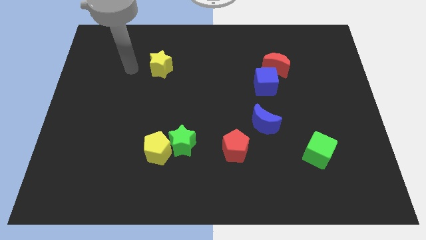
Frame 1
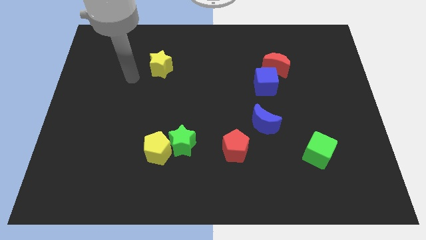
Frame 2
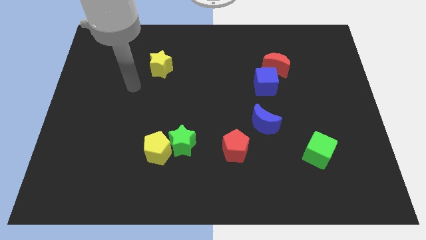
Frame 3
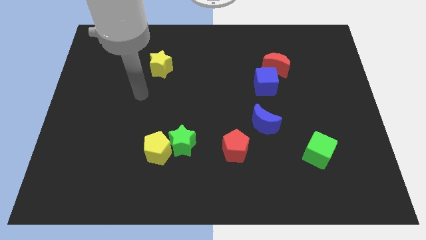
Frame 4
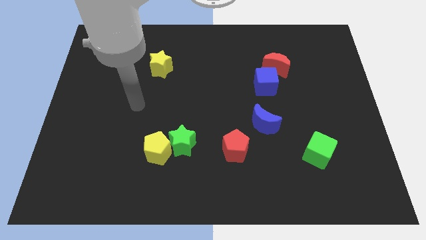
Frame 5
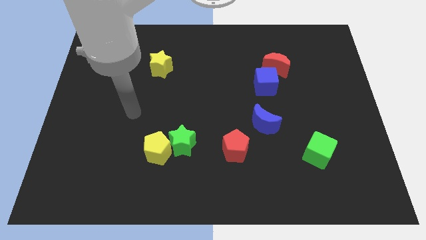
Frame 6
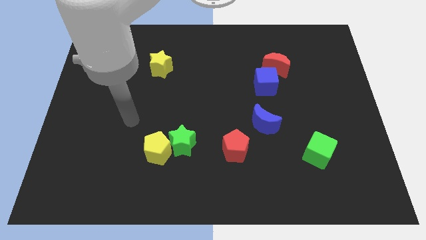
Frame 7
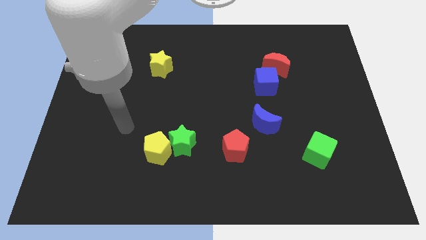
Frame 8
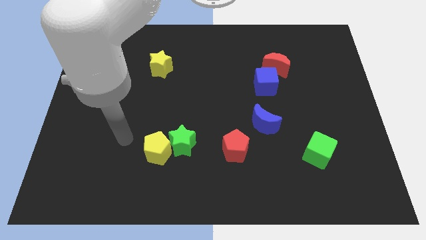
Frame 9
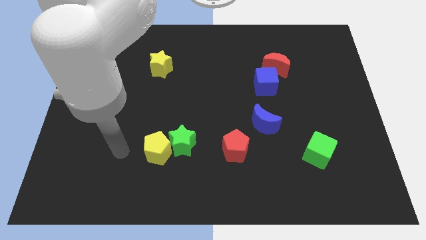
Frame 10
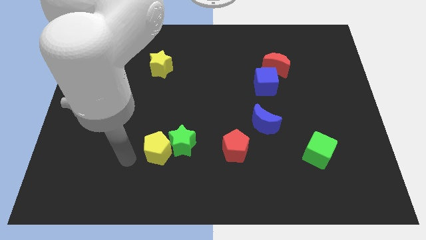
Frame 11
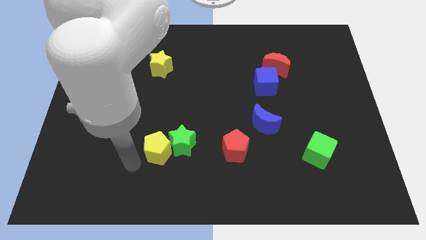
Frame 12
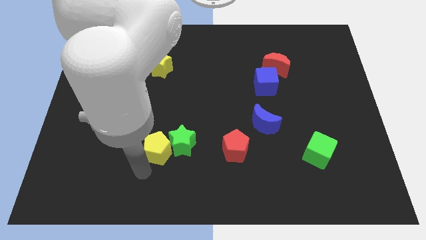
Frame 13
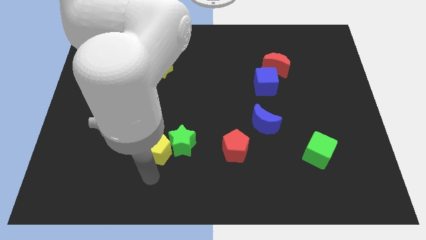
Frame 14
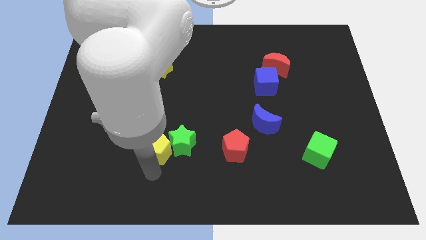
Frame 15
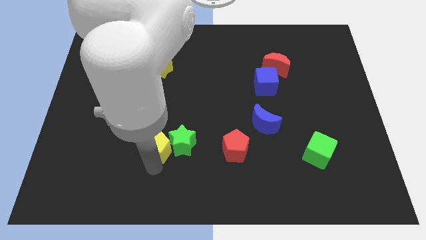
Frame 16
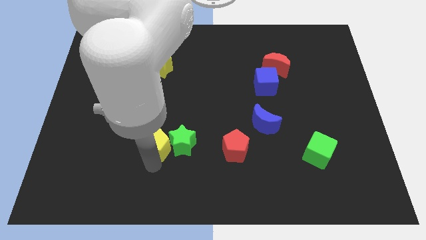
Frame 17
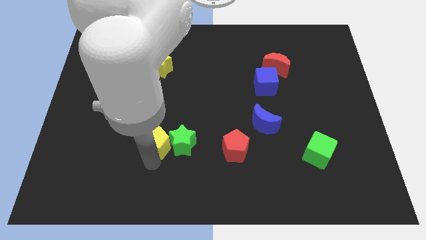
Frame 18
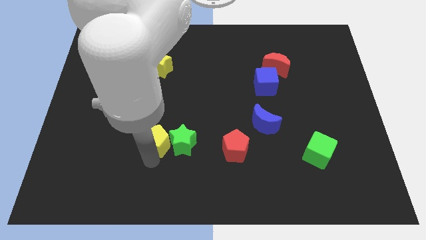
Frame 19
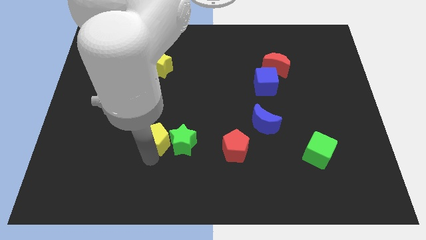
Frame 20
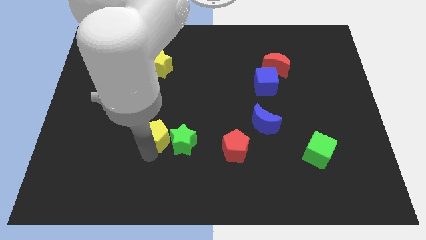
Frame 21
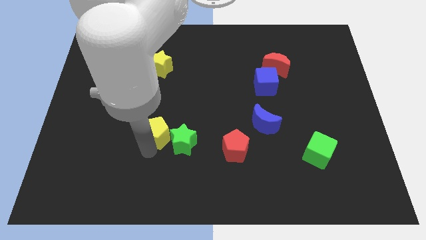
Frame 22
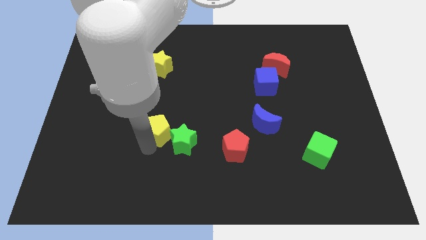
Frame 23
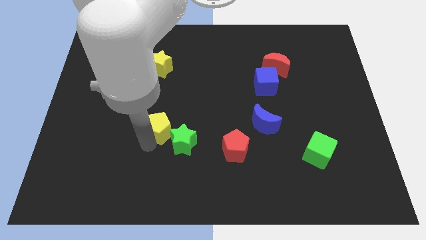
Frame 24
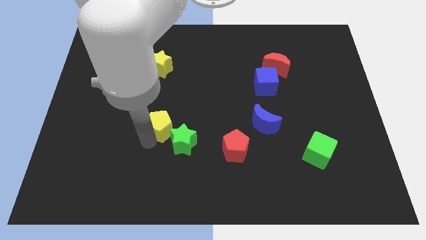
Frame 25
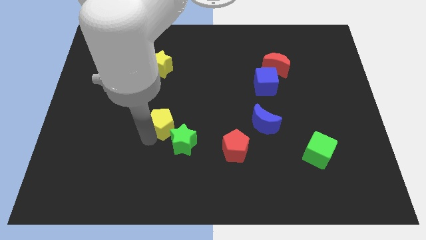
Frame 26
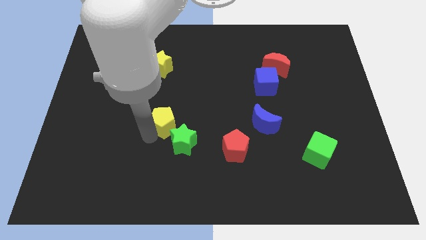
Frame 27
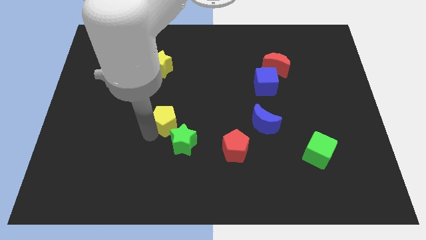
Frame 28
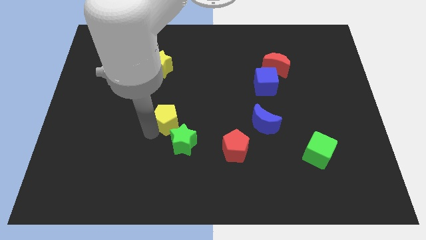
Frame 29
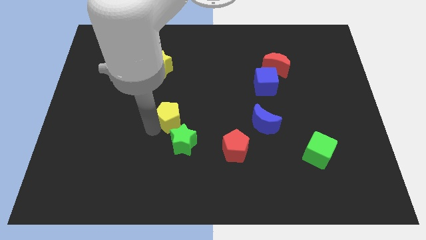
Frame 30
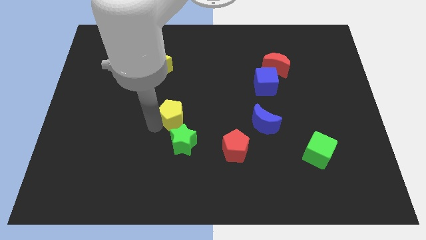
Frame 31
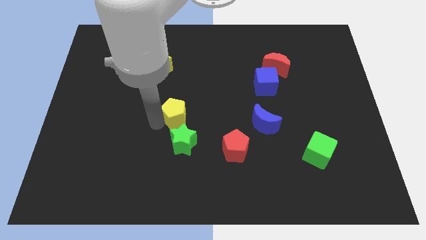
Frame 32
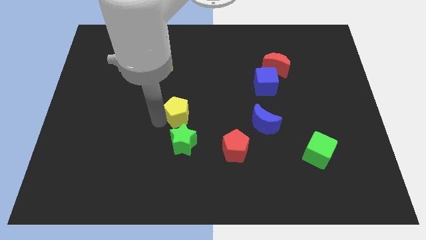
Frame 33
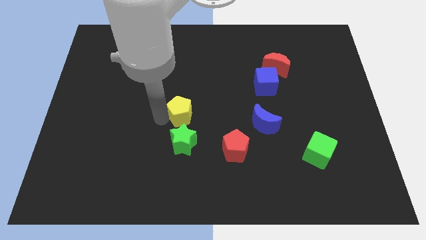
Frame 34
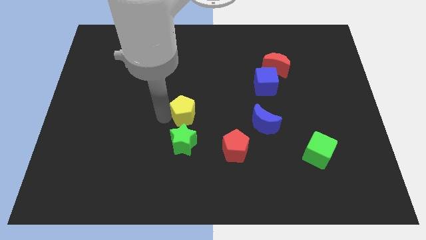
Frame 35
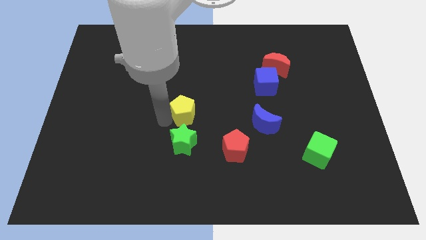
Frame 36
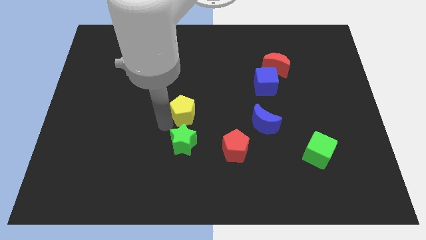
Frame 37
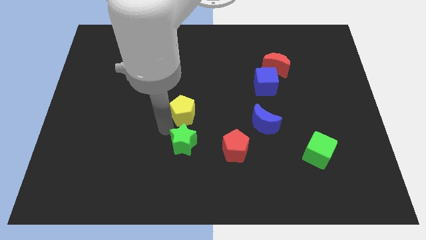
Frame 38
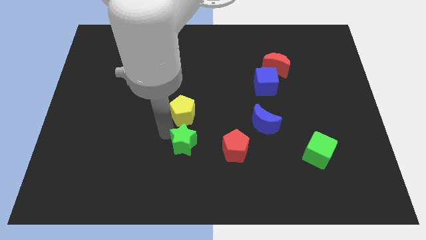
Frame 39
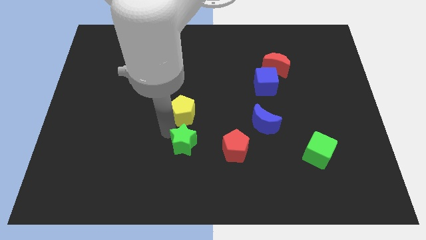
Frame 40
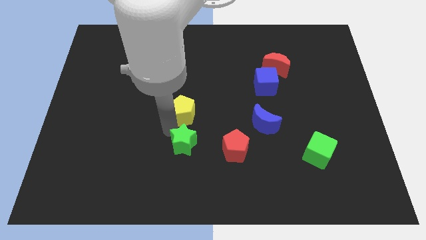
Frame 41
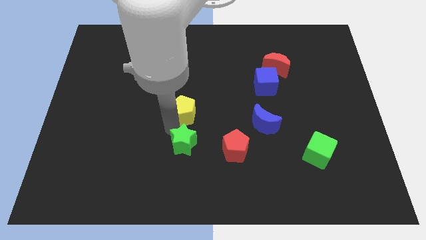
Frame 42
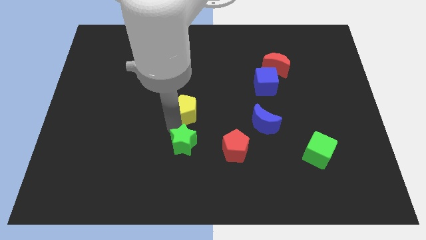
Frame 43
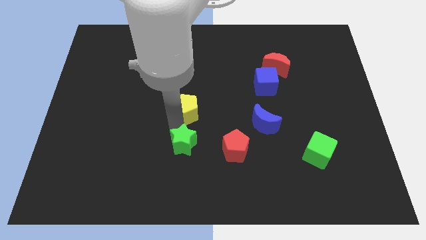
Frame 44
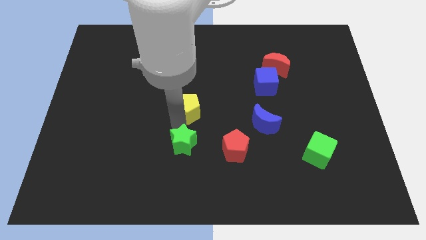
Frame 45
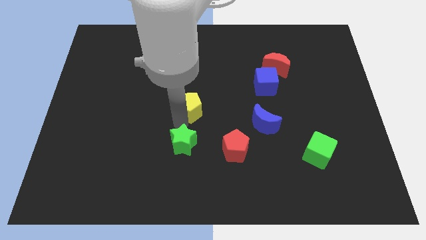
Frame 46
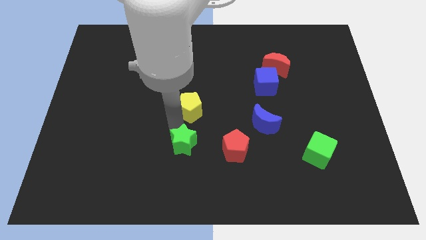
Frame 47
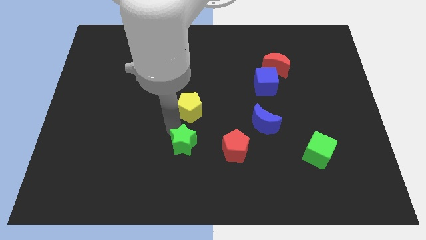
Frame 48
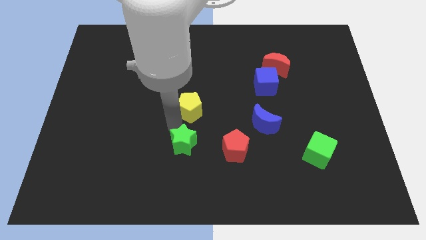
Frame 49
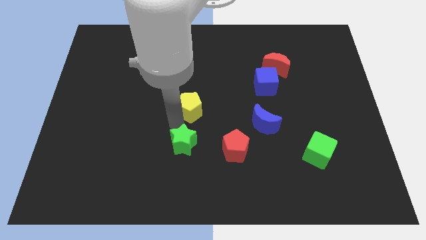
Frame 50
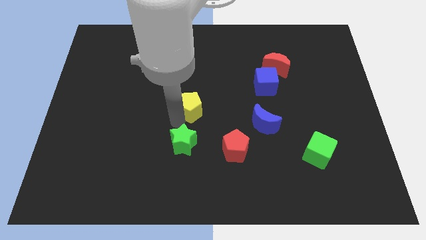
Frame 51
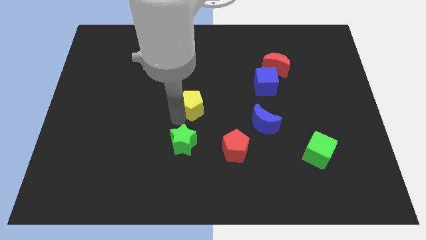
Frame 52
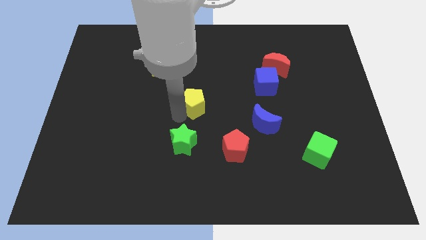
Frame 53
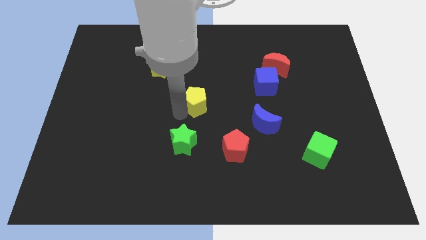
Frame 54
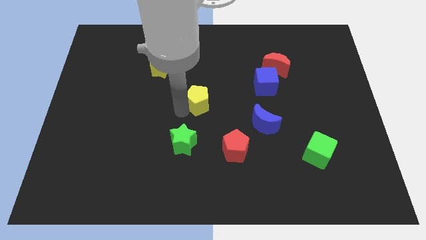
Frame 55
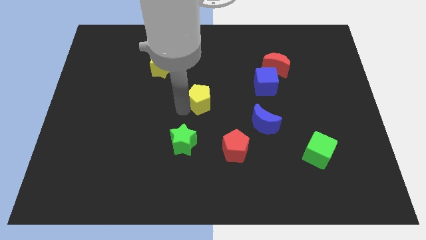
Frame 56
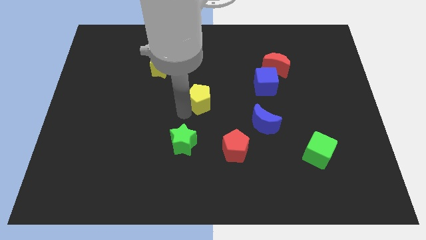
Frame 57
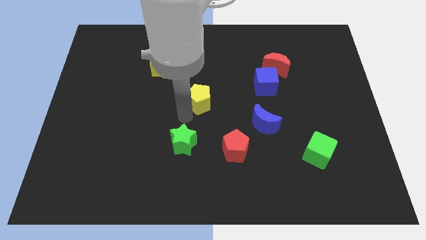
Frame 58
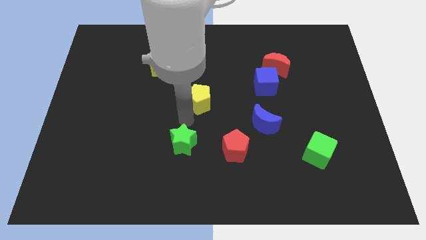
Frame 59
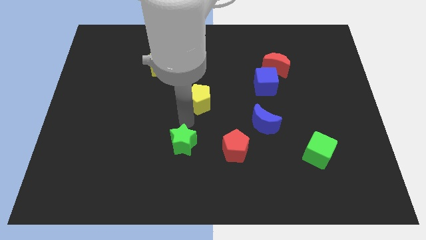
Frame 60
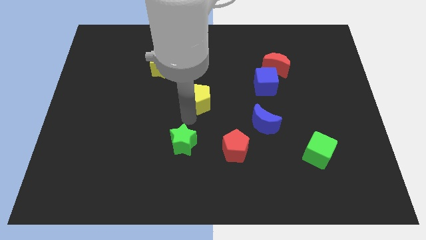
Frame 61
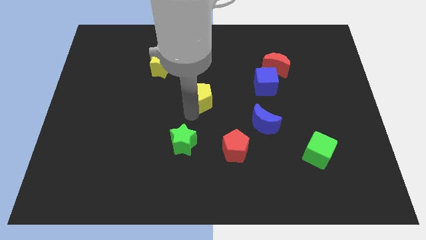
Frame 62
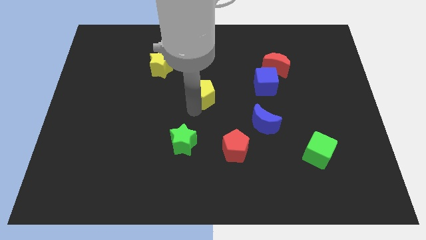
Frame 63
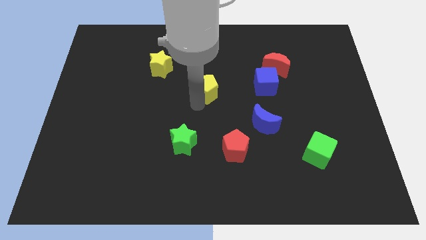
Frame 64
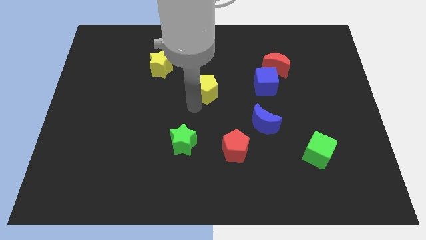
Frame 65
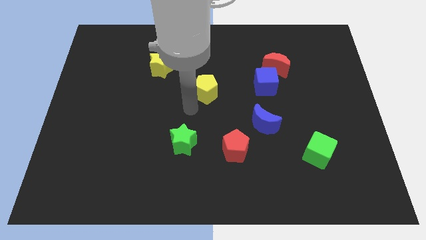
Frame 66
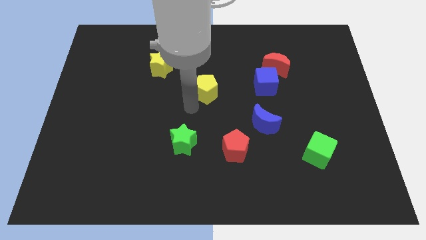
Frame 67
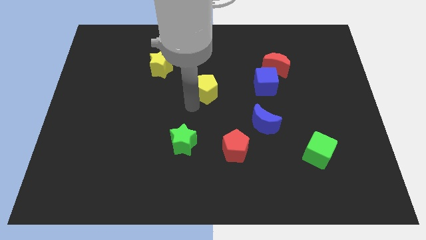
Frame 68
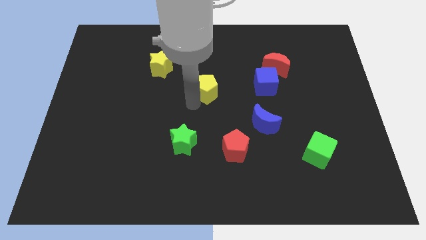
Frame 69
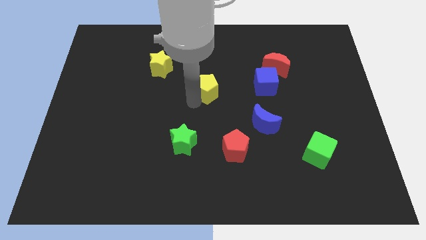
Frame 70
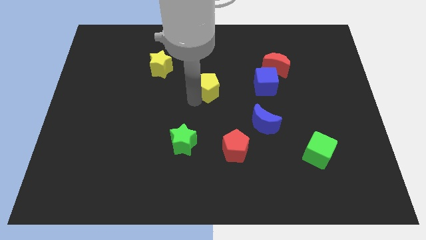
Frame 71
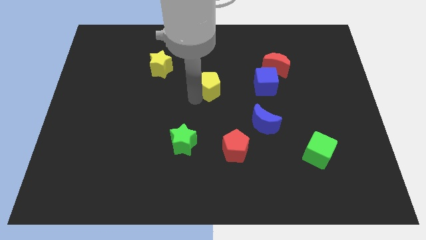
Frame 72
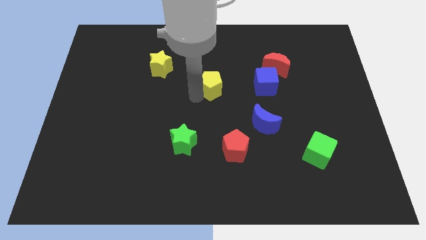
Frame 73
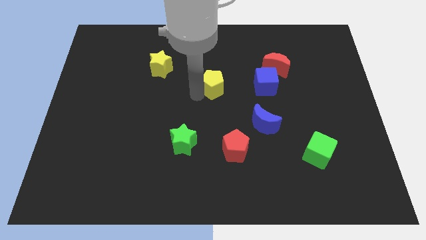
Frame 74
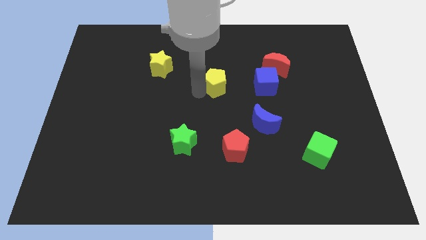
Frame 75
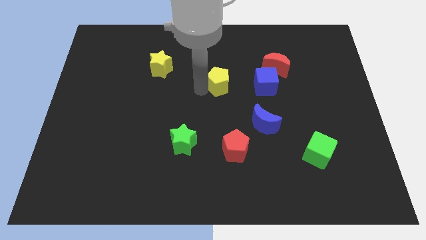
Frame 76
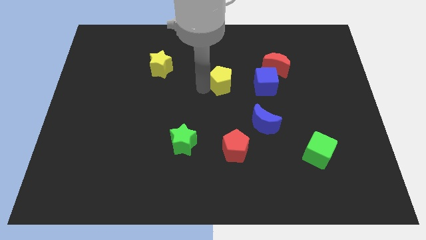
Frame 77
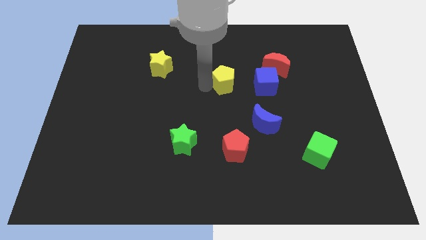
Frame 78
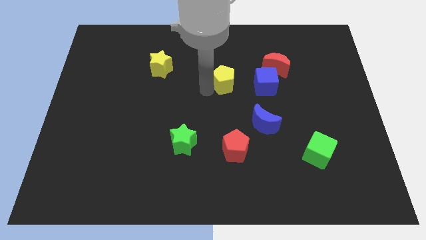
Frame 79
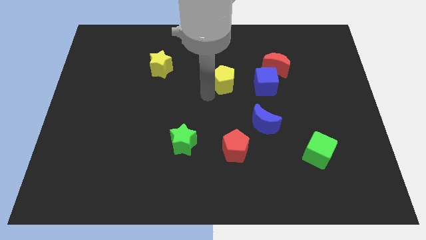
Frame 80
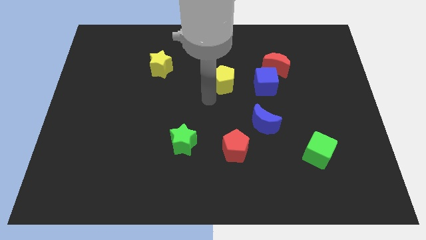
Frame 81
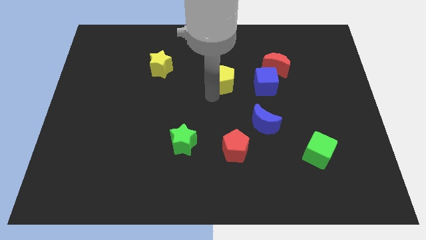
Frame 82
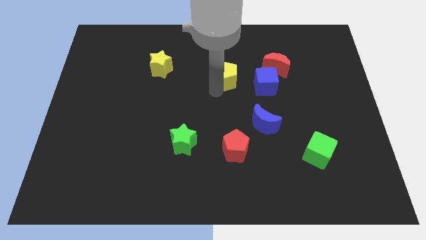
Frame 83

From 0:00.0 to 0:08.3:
push the yellow pentagon to the left side of the red moon
